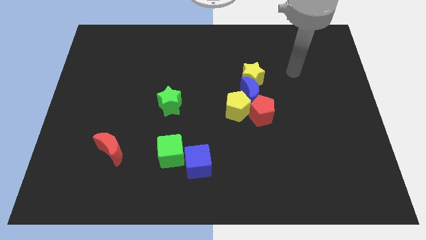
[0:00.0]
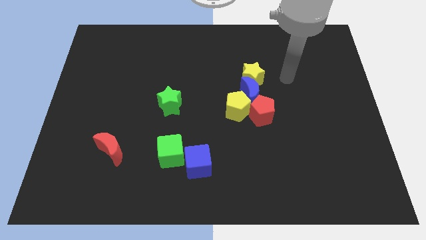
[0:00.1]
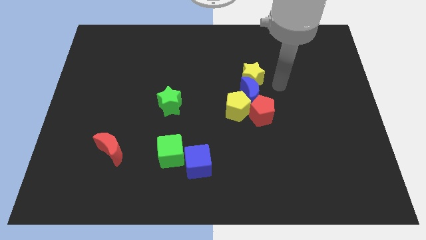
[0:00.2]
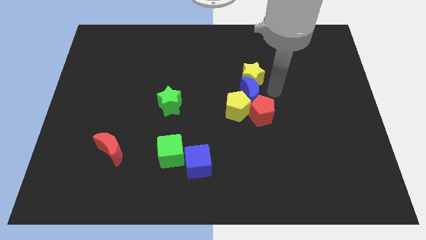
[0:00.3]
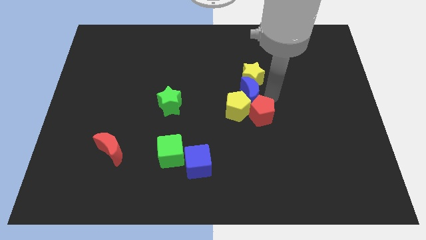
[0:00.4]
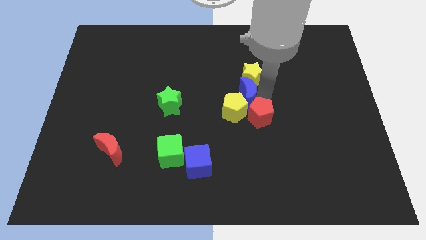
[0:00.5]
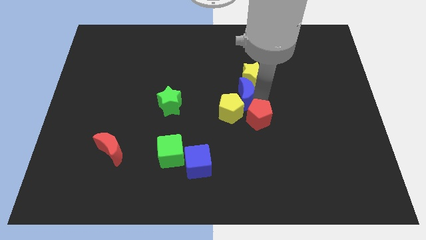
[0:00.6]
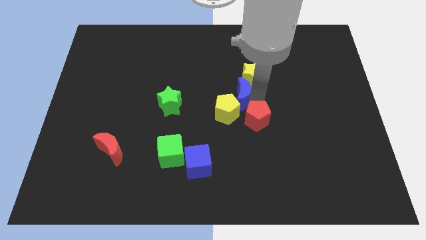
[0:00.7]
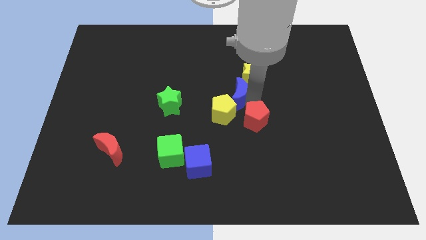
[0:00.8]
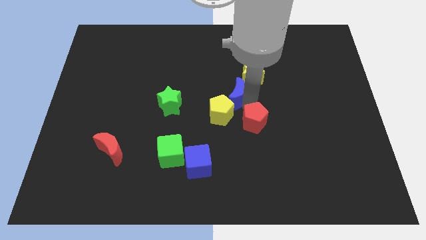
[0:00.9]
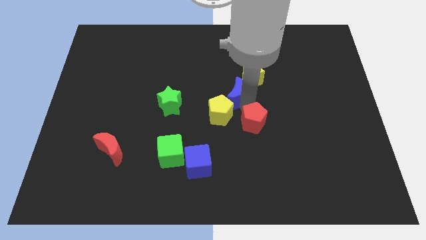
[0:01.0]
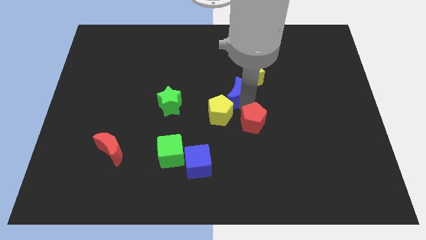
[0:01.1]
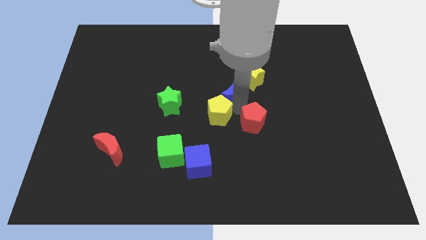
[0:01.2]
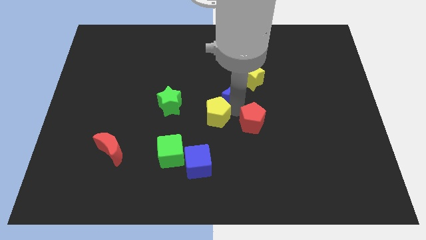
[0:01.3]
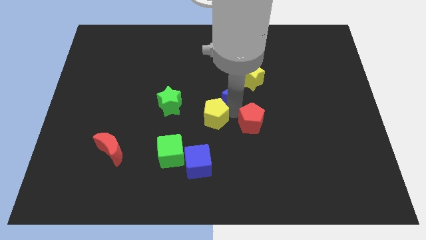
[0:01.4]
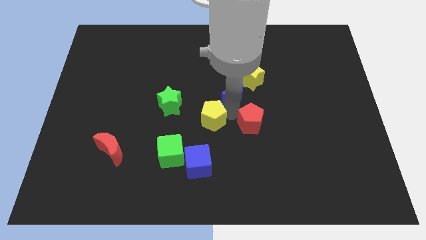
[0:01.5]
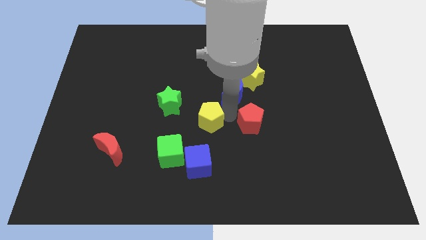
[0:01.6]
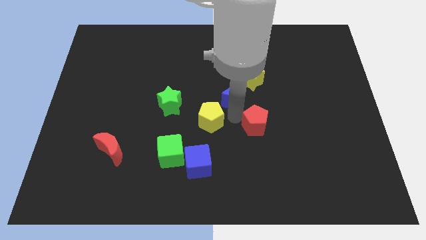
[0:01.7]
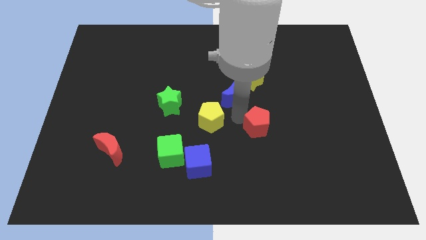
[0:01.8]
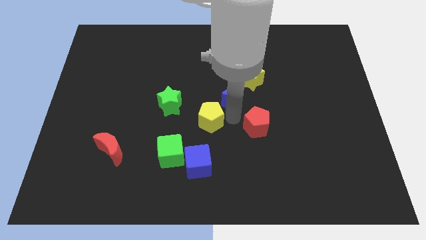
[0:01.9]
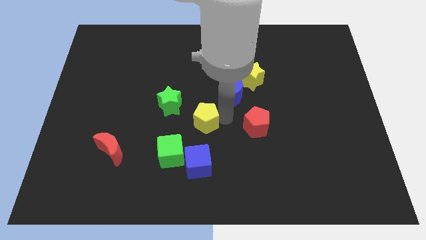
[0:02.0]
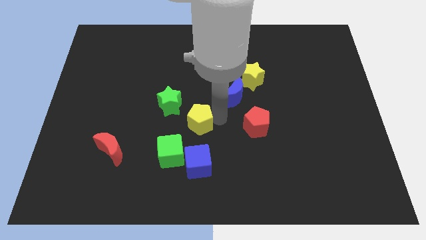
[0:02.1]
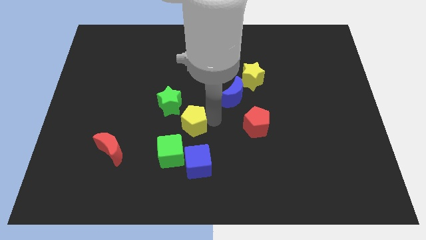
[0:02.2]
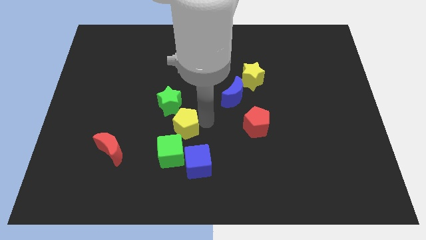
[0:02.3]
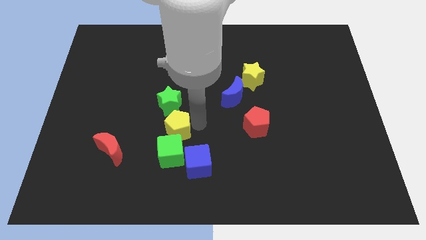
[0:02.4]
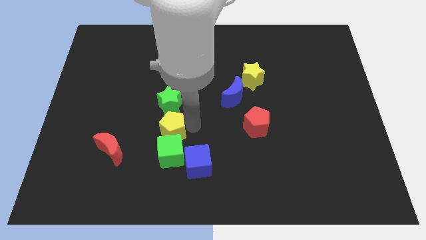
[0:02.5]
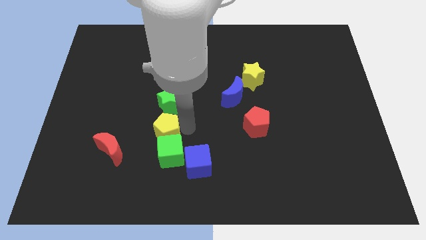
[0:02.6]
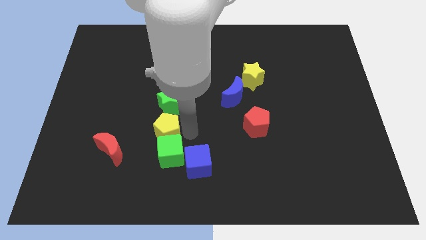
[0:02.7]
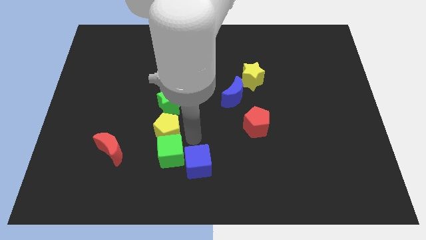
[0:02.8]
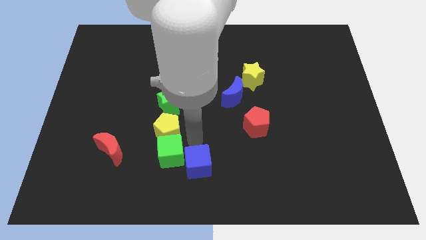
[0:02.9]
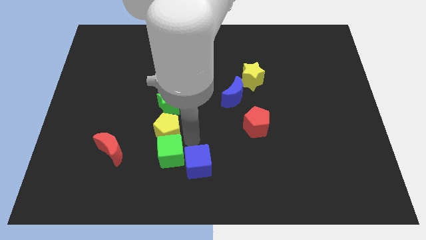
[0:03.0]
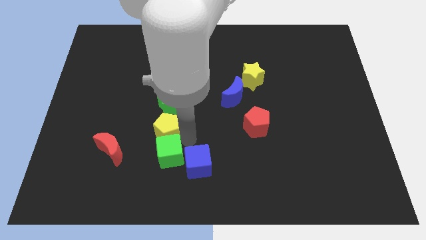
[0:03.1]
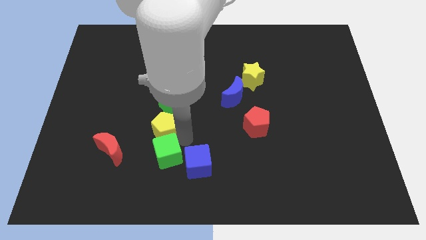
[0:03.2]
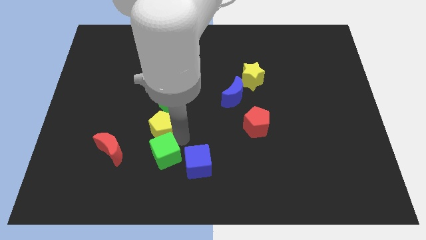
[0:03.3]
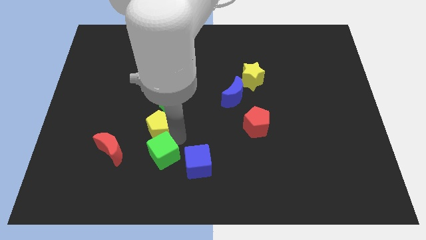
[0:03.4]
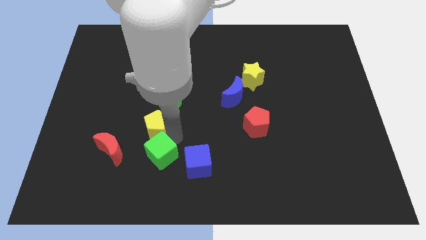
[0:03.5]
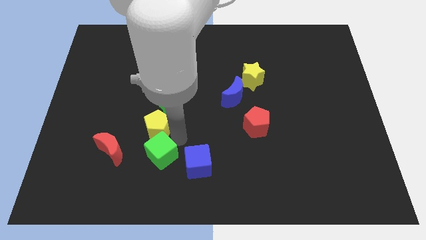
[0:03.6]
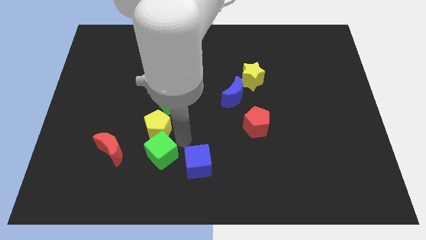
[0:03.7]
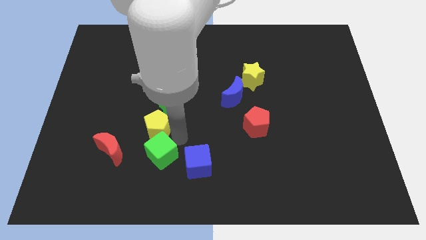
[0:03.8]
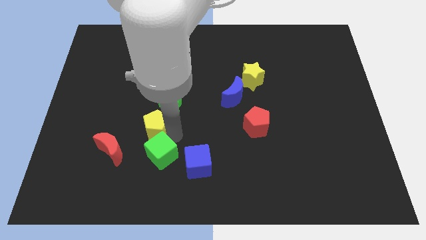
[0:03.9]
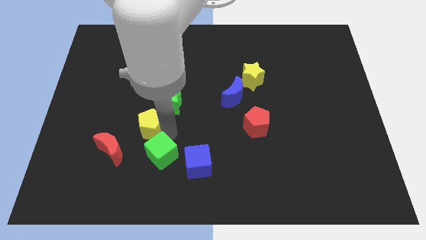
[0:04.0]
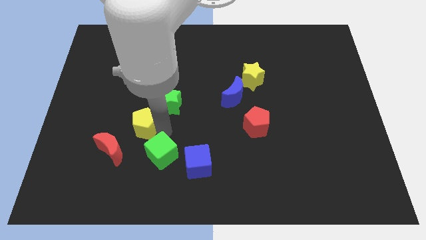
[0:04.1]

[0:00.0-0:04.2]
push the yellow pentagon to the left

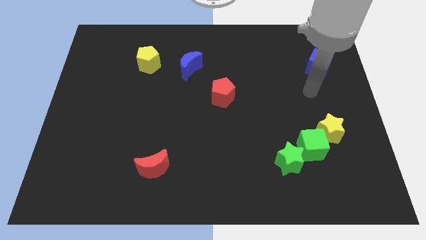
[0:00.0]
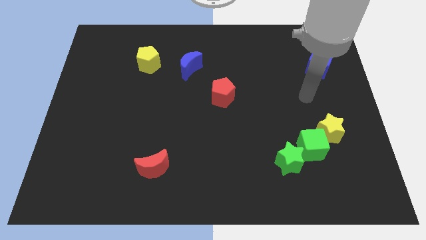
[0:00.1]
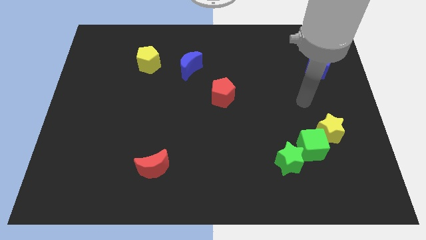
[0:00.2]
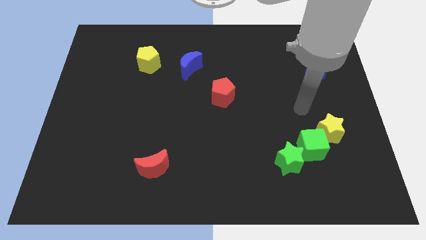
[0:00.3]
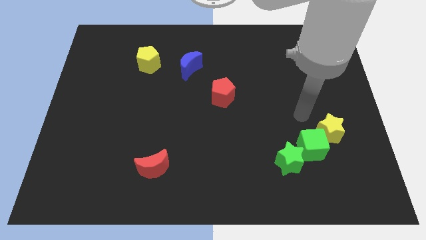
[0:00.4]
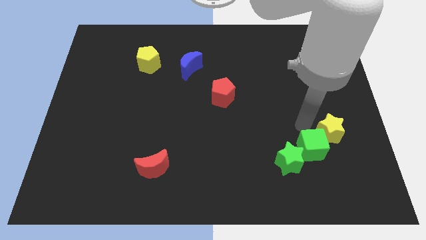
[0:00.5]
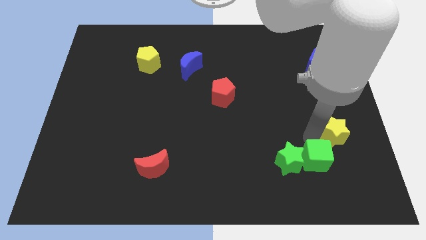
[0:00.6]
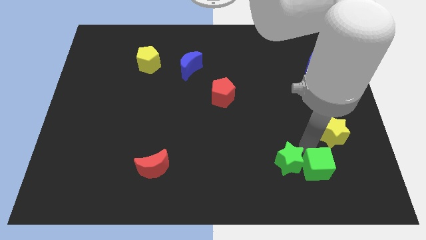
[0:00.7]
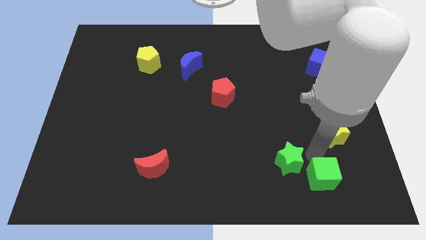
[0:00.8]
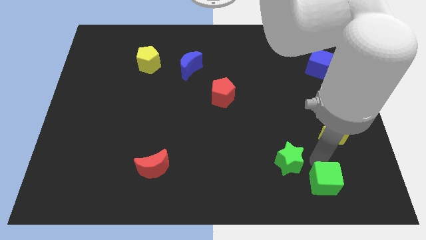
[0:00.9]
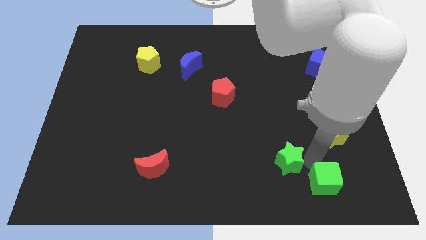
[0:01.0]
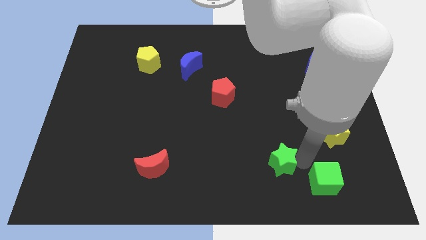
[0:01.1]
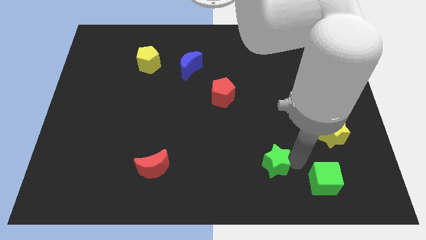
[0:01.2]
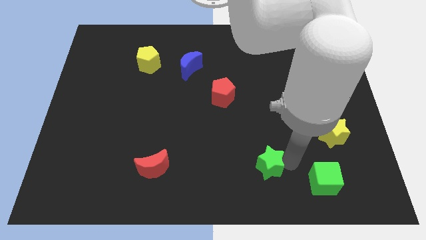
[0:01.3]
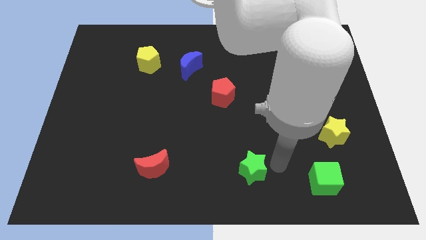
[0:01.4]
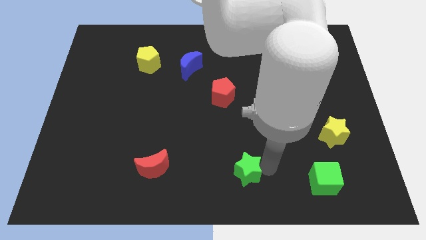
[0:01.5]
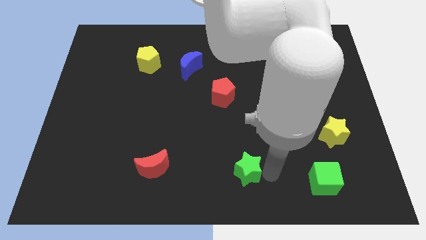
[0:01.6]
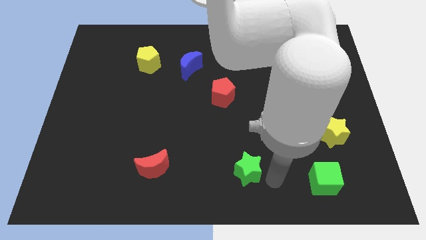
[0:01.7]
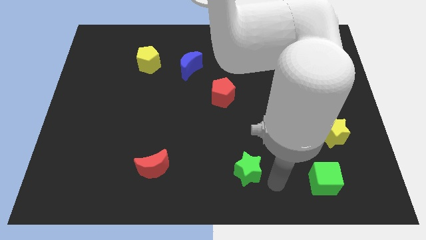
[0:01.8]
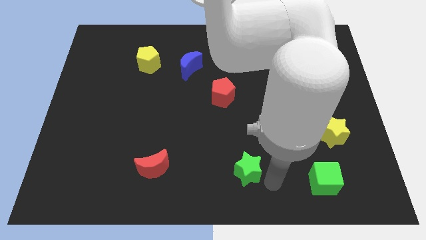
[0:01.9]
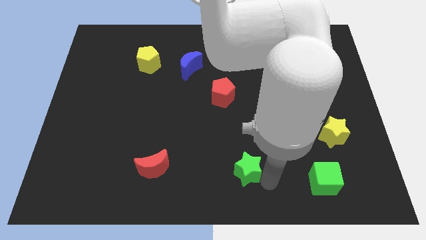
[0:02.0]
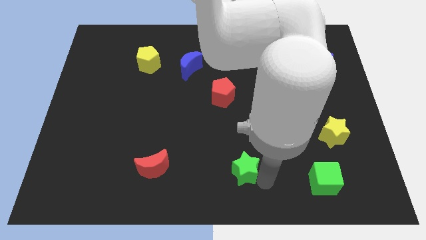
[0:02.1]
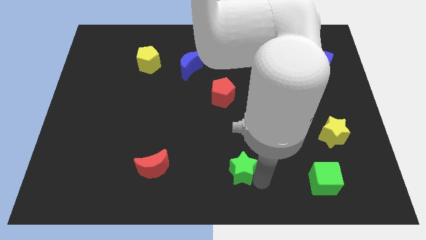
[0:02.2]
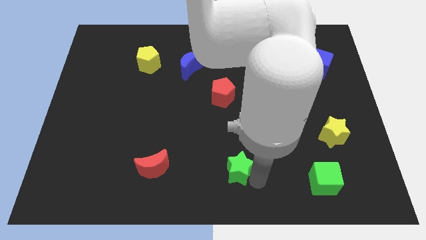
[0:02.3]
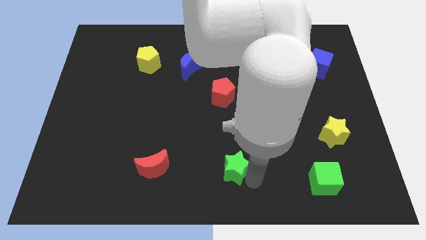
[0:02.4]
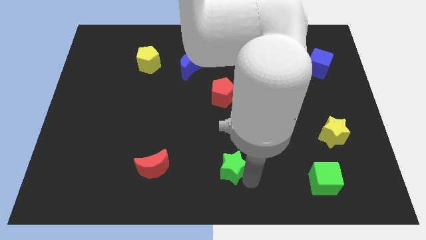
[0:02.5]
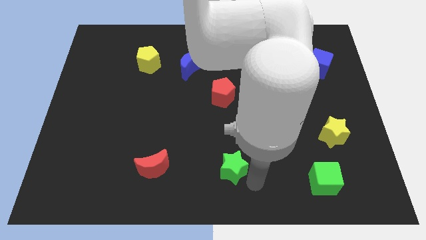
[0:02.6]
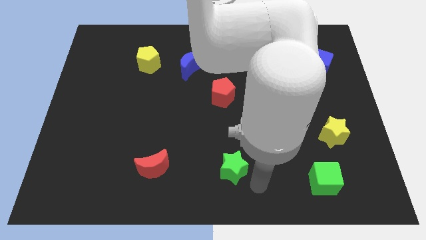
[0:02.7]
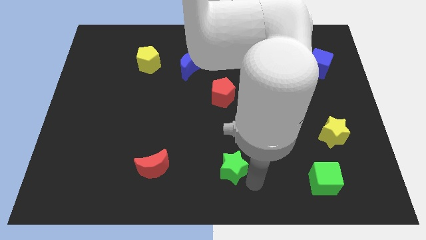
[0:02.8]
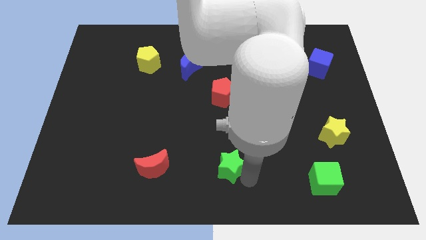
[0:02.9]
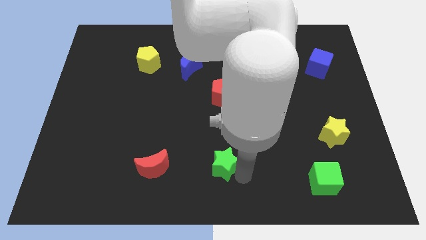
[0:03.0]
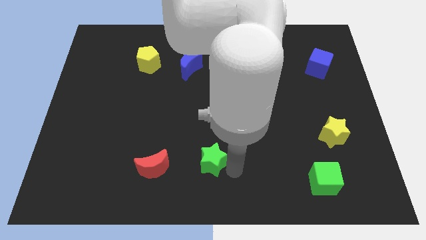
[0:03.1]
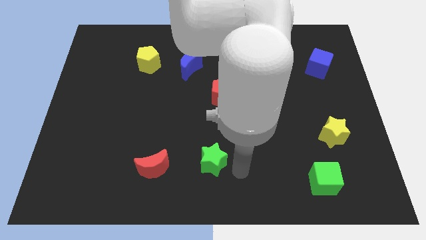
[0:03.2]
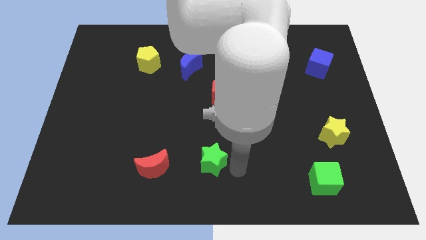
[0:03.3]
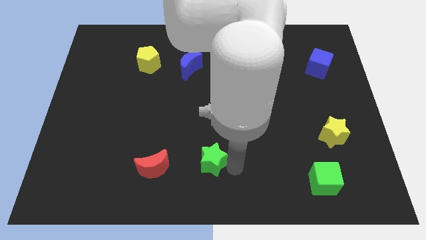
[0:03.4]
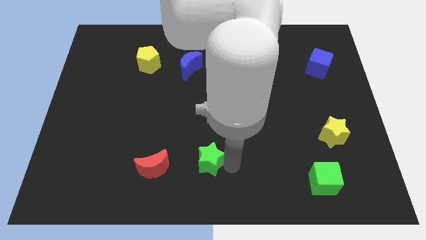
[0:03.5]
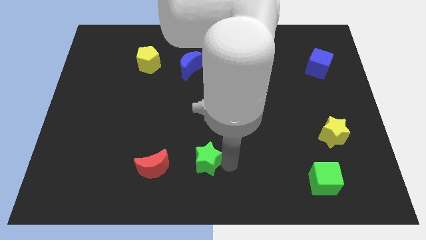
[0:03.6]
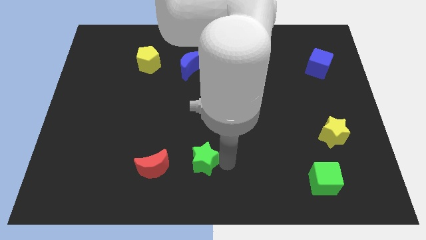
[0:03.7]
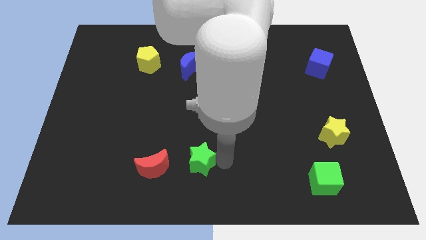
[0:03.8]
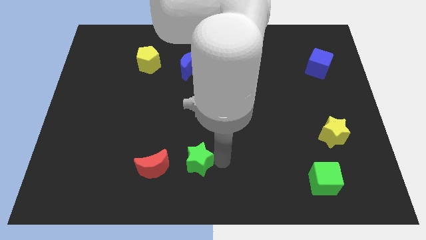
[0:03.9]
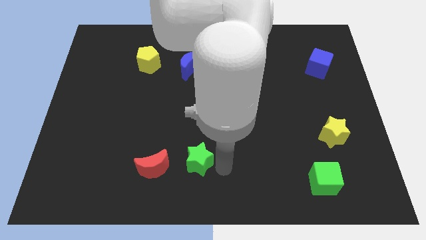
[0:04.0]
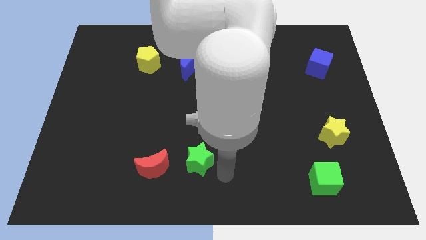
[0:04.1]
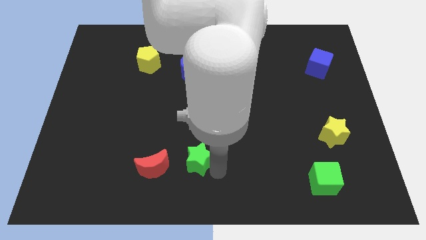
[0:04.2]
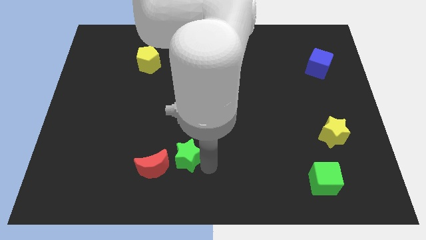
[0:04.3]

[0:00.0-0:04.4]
push the green star to the left

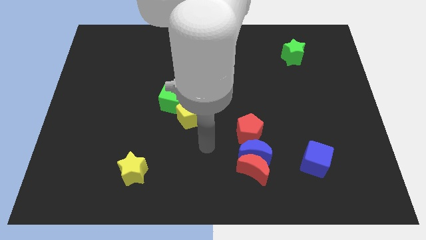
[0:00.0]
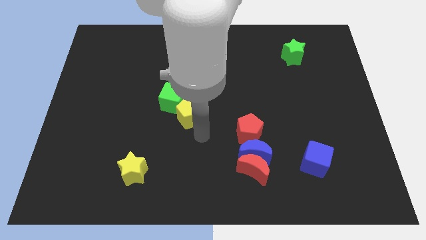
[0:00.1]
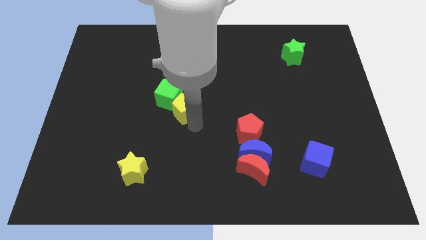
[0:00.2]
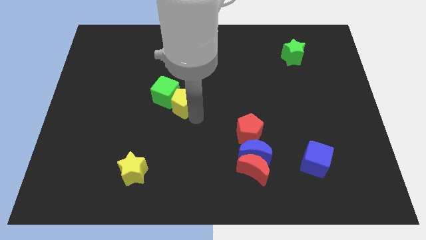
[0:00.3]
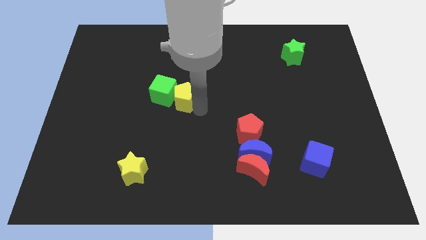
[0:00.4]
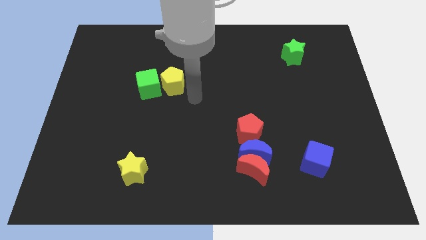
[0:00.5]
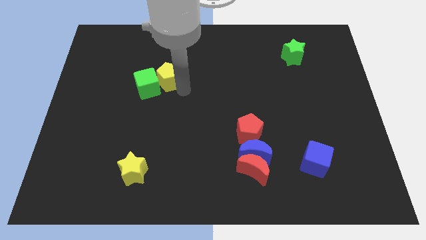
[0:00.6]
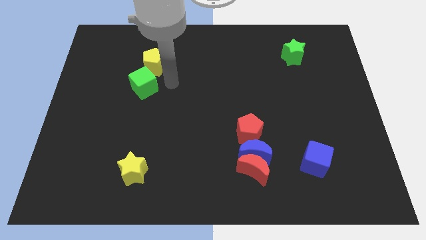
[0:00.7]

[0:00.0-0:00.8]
slide the green cube slightly left
